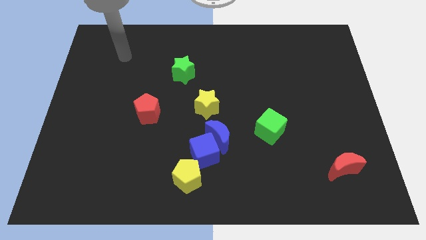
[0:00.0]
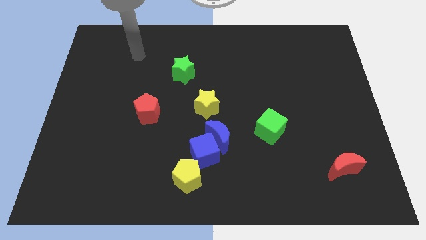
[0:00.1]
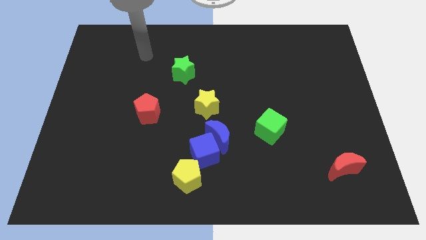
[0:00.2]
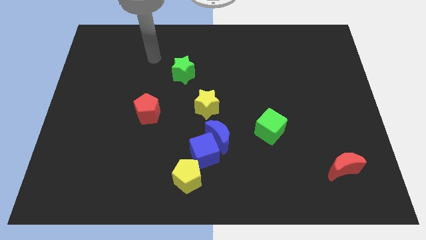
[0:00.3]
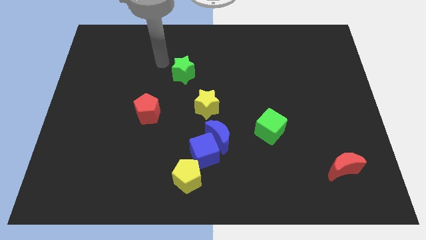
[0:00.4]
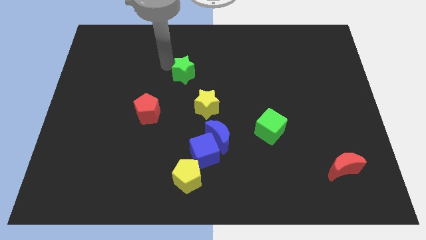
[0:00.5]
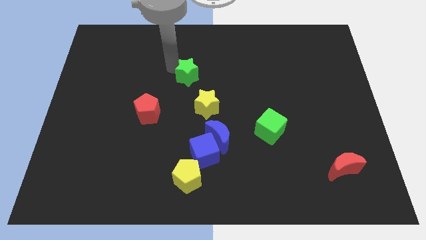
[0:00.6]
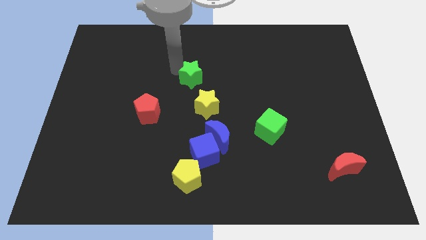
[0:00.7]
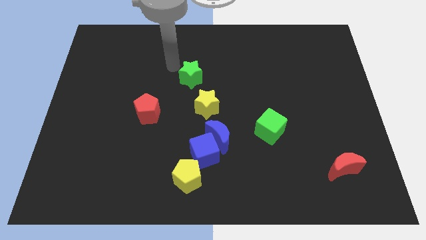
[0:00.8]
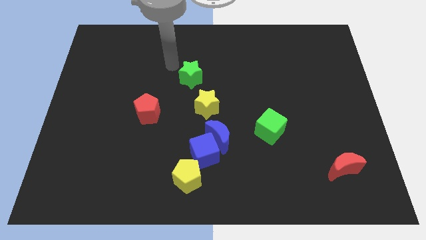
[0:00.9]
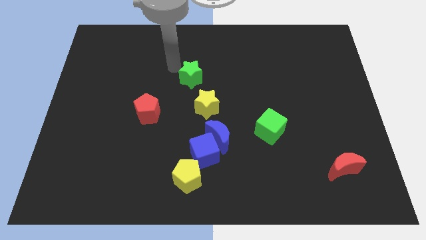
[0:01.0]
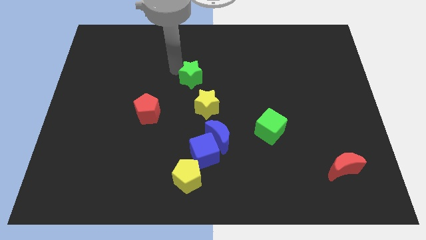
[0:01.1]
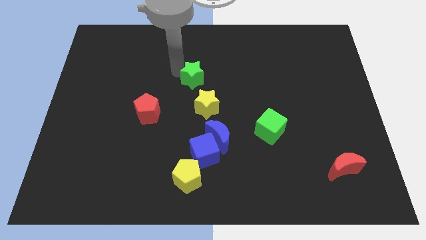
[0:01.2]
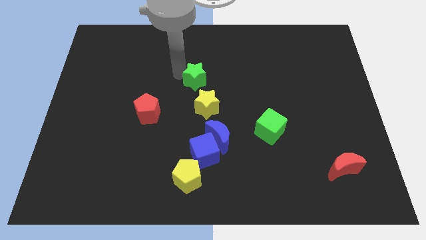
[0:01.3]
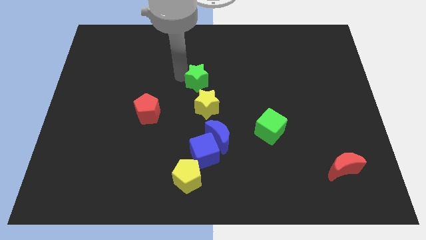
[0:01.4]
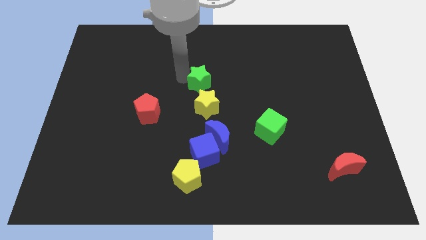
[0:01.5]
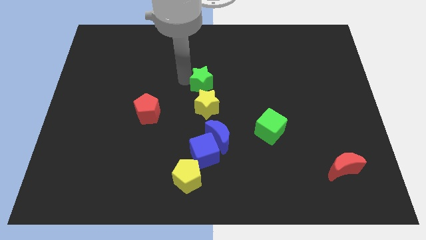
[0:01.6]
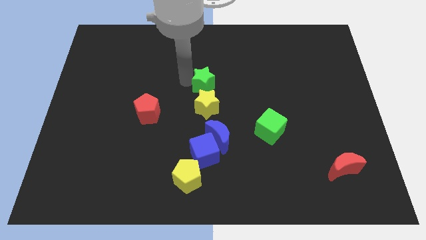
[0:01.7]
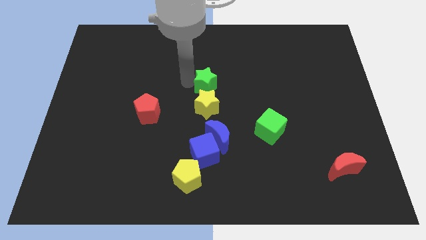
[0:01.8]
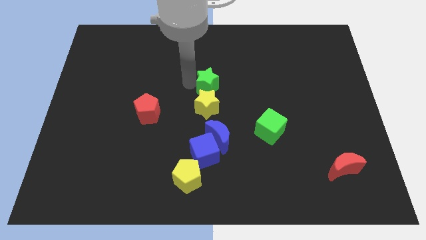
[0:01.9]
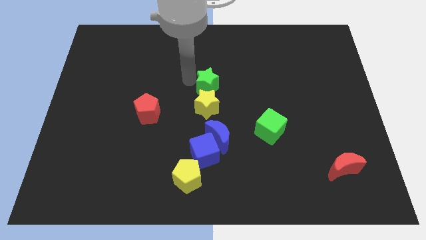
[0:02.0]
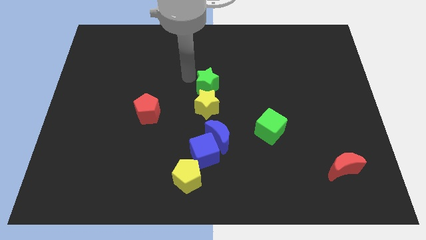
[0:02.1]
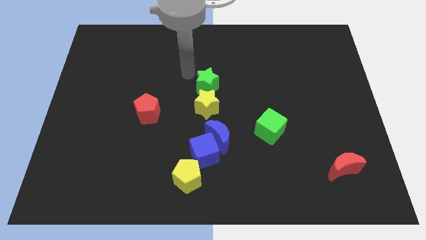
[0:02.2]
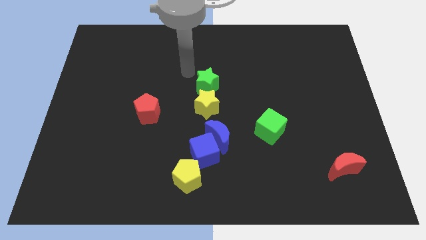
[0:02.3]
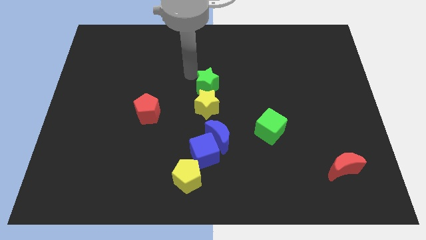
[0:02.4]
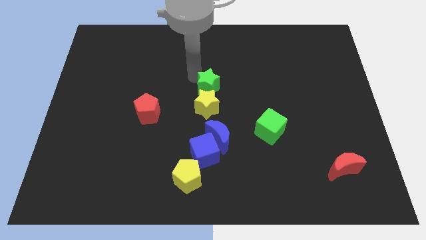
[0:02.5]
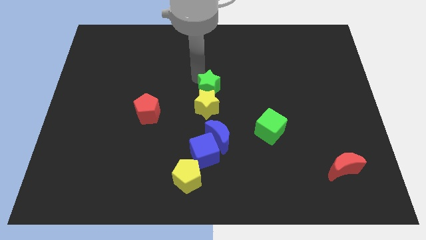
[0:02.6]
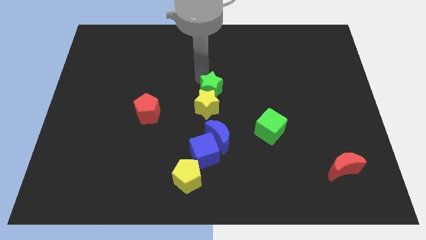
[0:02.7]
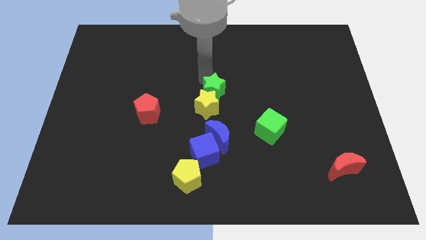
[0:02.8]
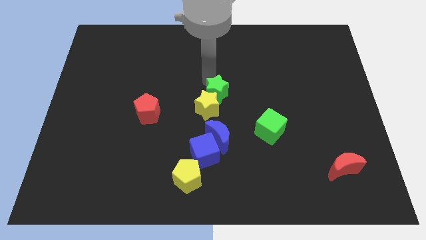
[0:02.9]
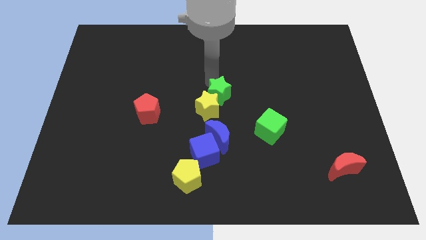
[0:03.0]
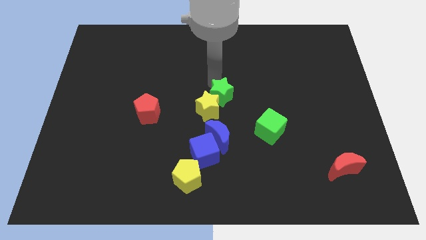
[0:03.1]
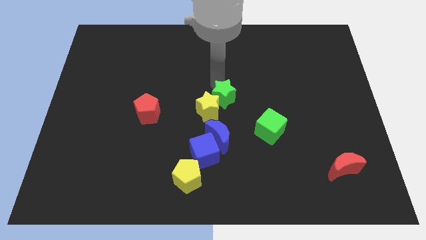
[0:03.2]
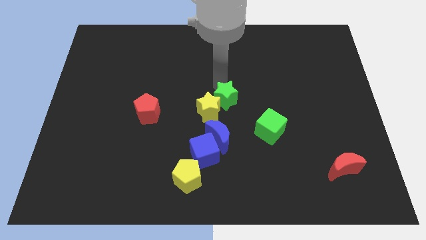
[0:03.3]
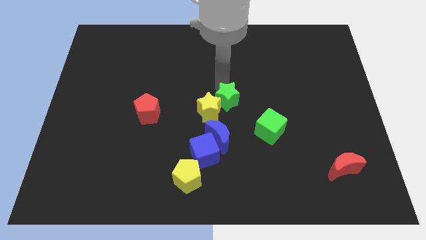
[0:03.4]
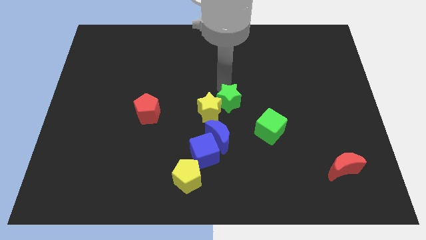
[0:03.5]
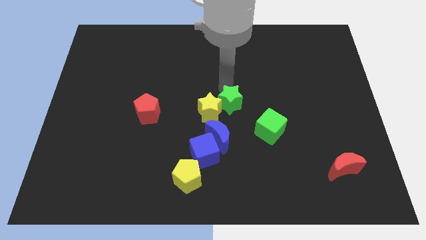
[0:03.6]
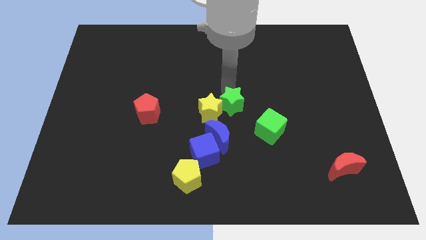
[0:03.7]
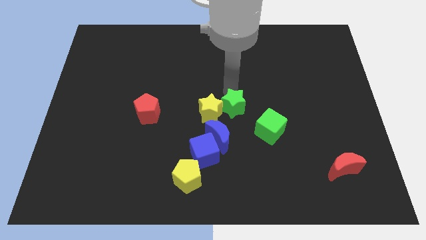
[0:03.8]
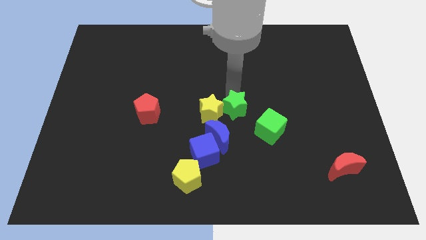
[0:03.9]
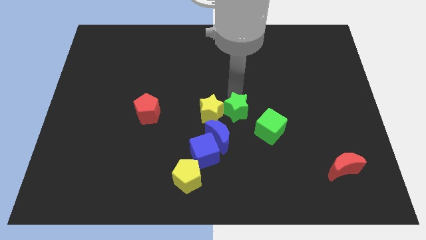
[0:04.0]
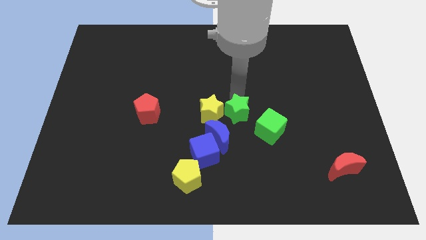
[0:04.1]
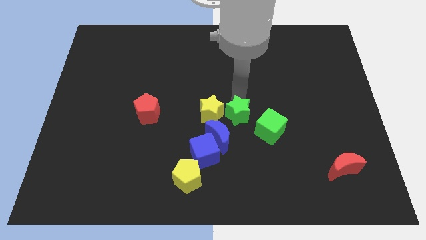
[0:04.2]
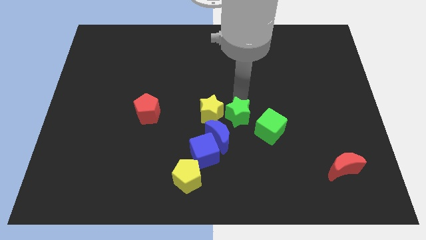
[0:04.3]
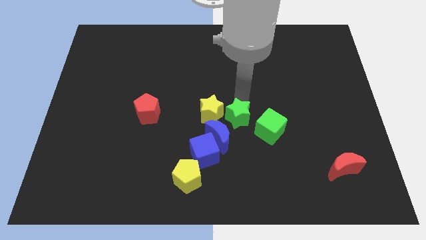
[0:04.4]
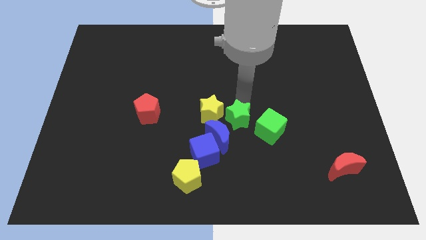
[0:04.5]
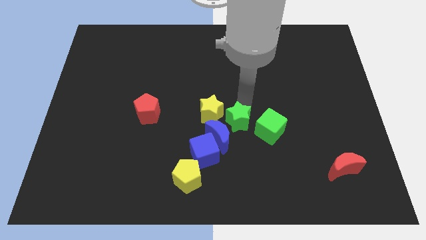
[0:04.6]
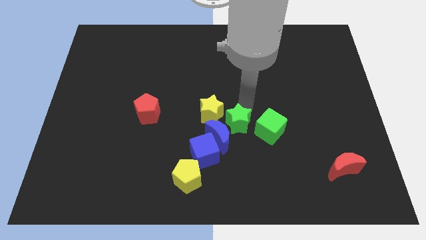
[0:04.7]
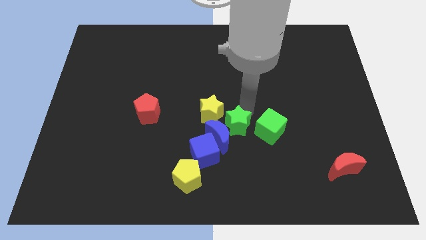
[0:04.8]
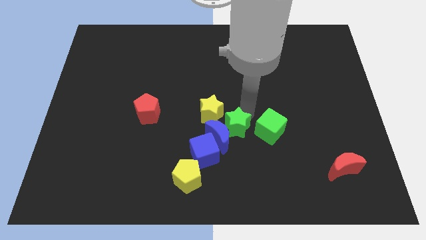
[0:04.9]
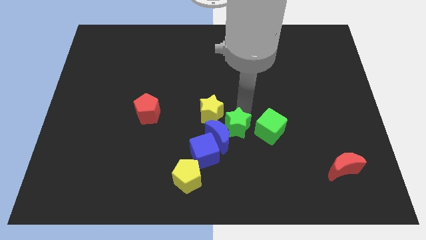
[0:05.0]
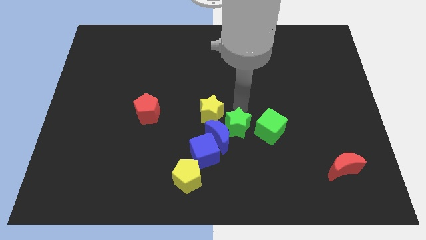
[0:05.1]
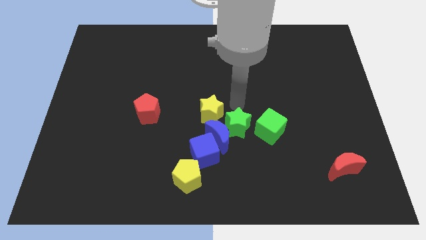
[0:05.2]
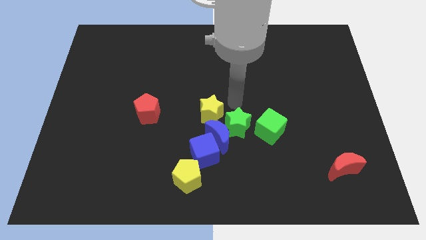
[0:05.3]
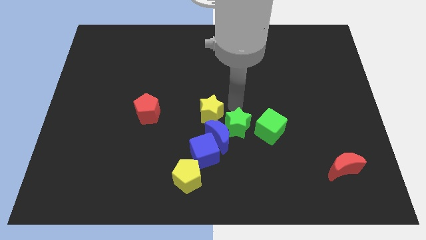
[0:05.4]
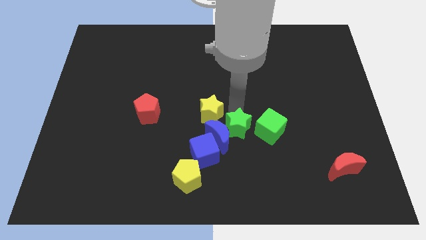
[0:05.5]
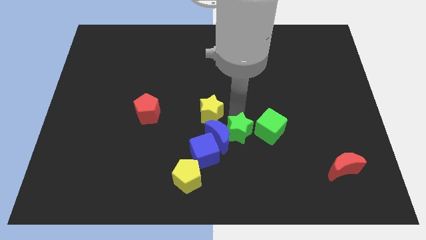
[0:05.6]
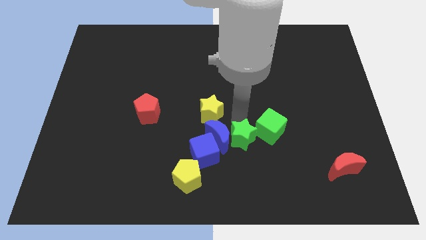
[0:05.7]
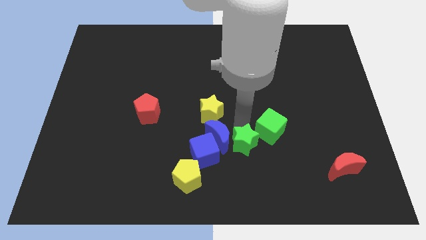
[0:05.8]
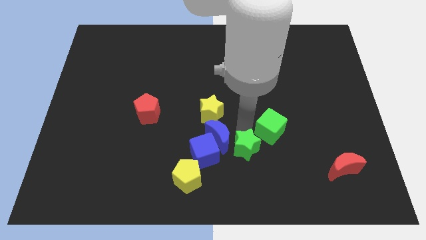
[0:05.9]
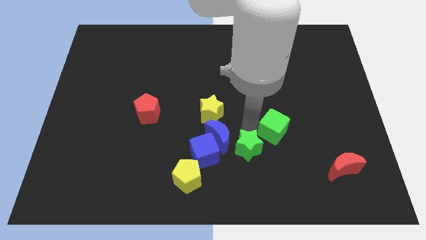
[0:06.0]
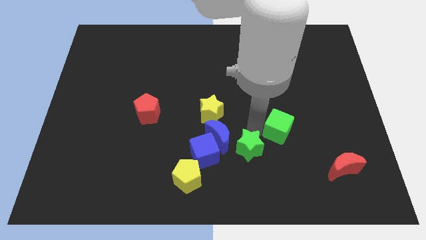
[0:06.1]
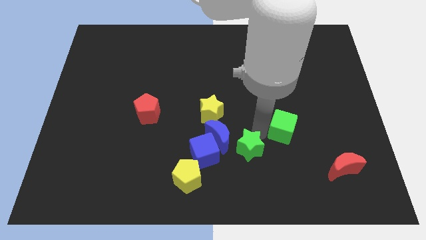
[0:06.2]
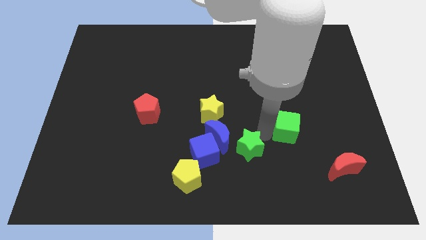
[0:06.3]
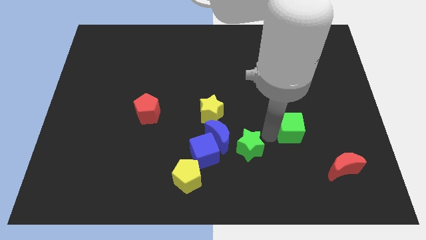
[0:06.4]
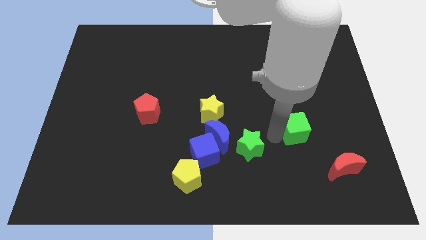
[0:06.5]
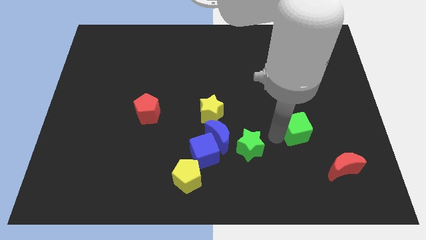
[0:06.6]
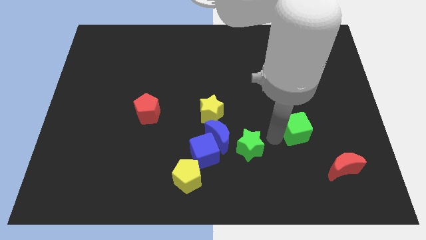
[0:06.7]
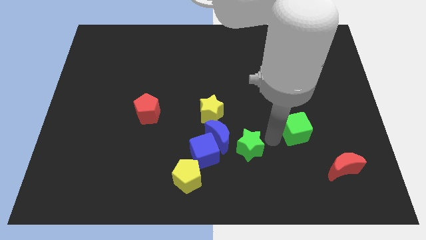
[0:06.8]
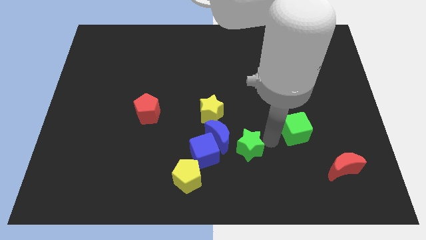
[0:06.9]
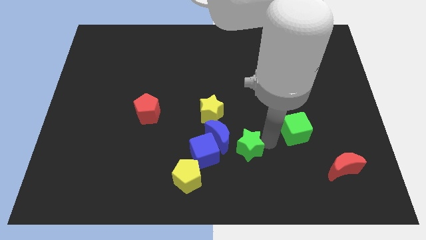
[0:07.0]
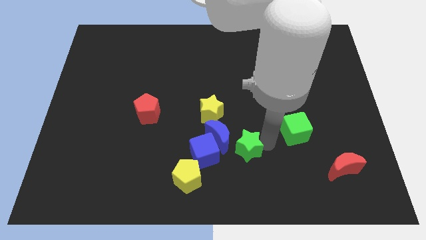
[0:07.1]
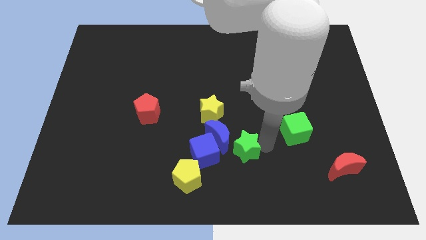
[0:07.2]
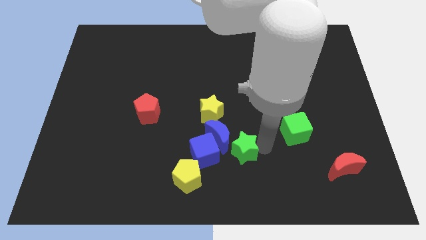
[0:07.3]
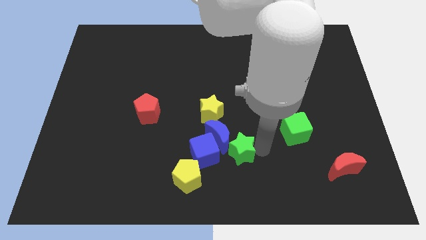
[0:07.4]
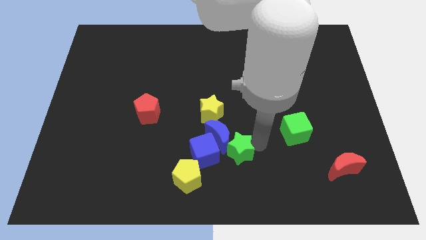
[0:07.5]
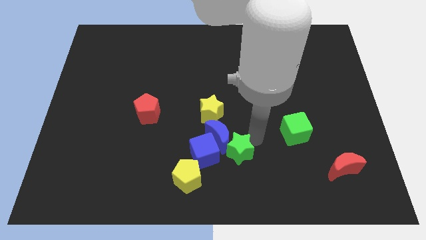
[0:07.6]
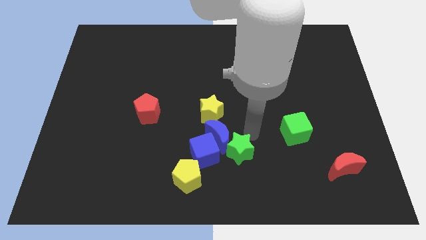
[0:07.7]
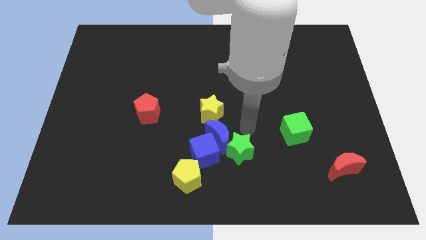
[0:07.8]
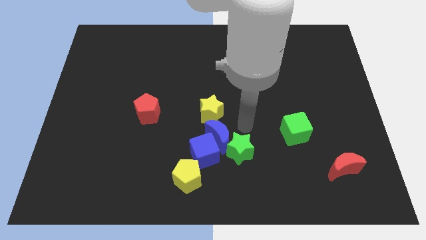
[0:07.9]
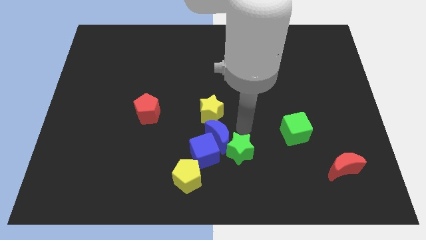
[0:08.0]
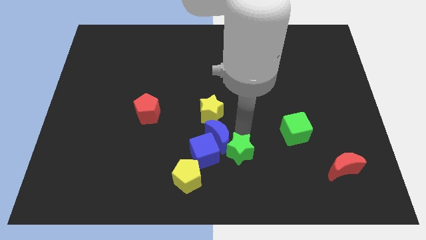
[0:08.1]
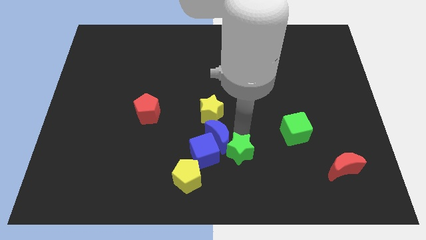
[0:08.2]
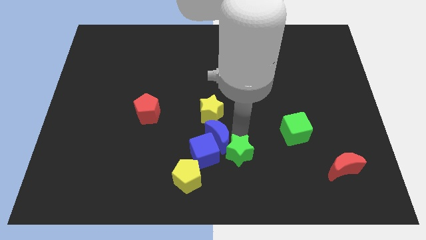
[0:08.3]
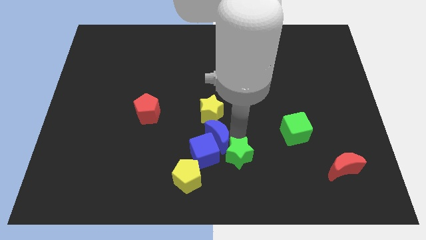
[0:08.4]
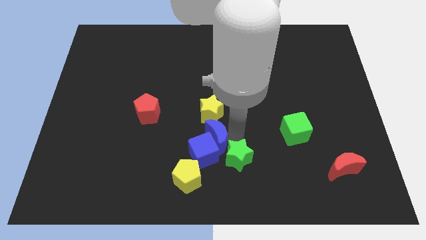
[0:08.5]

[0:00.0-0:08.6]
push the green star to the bottom
